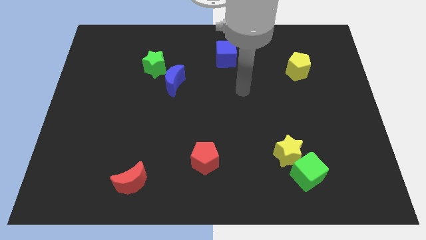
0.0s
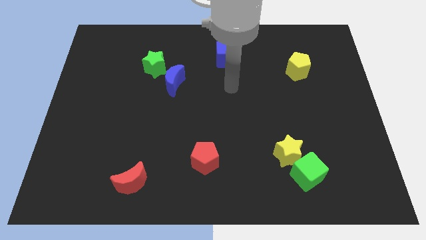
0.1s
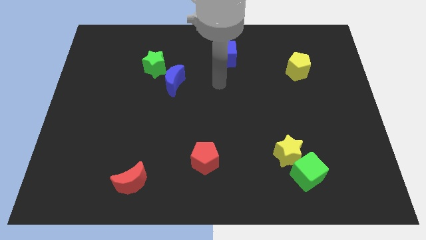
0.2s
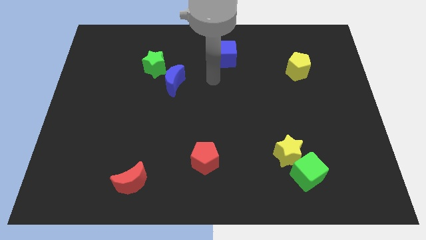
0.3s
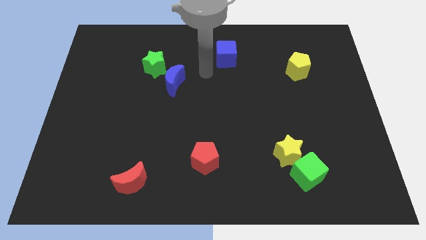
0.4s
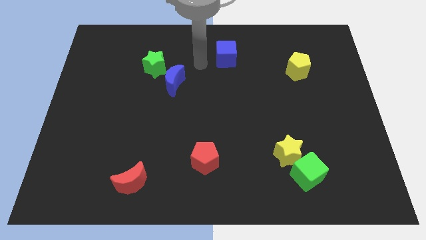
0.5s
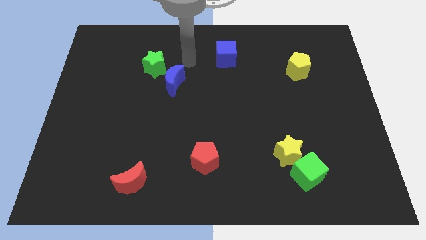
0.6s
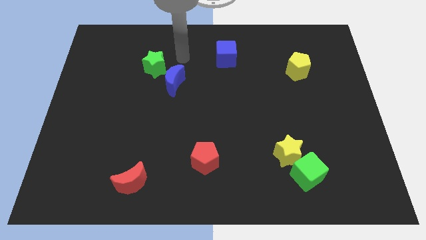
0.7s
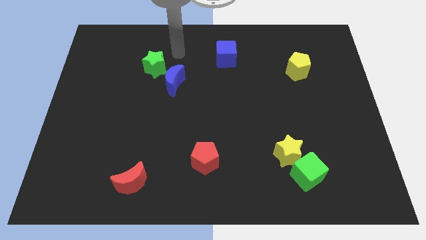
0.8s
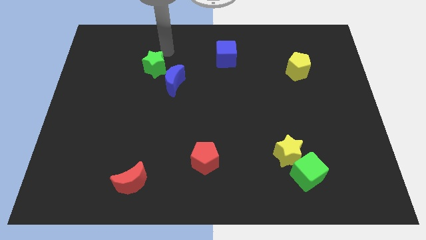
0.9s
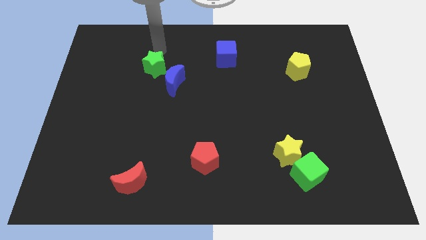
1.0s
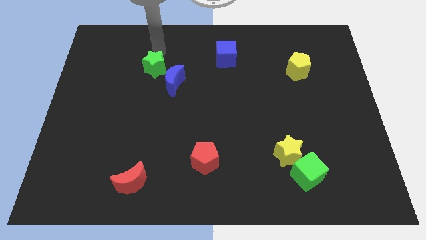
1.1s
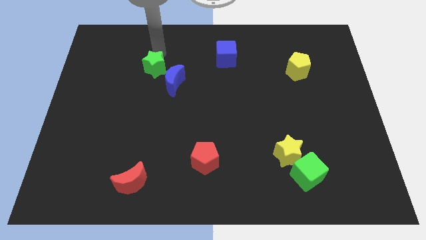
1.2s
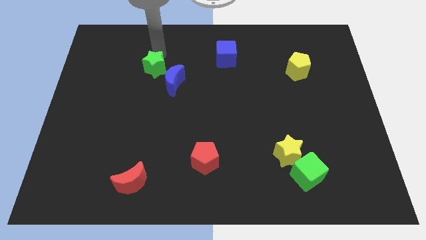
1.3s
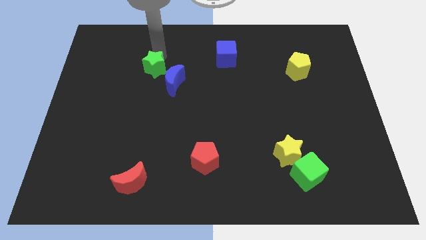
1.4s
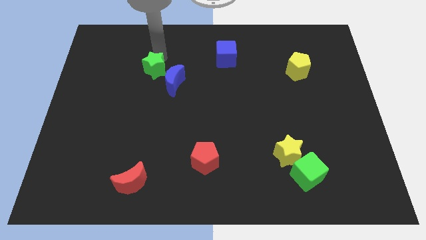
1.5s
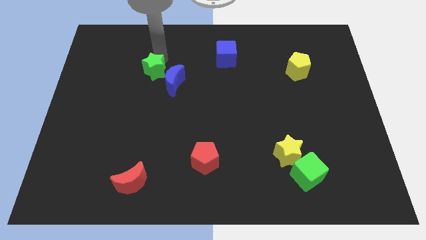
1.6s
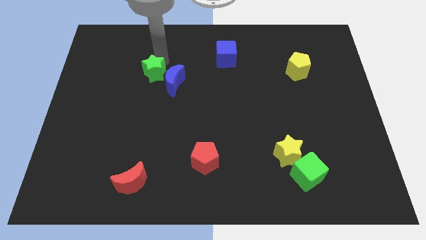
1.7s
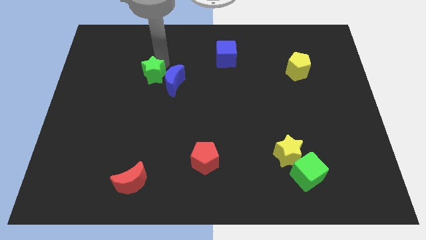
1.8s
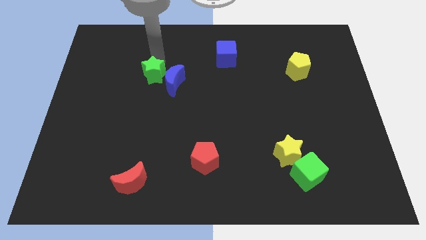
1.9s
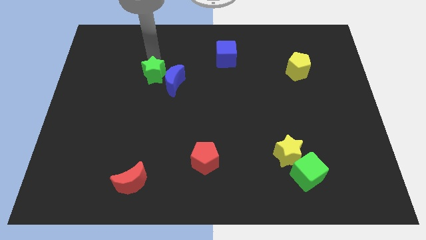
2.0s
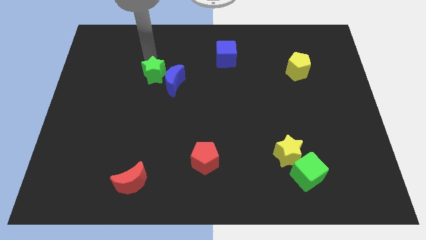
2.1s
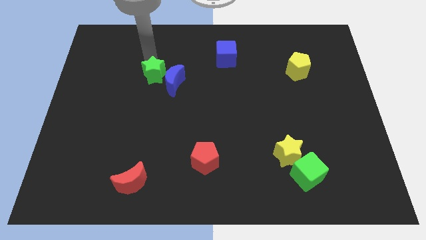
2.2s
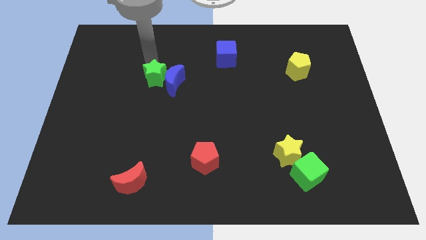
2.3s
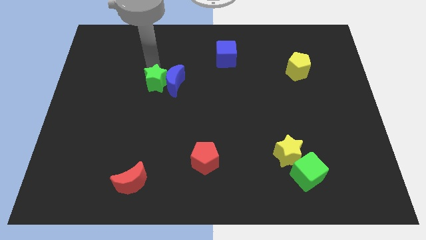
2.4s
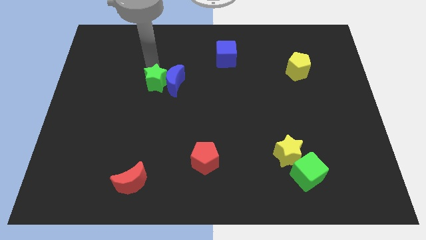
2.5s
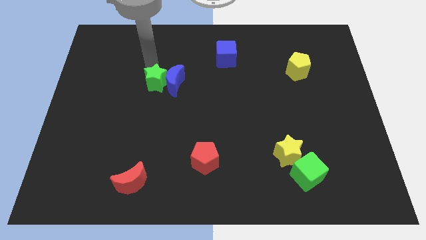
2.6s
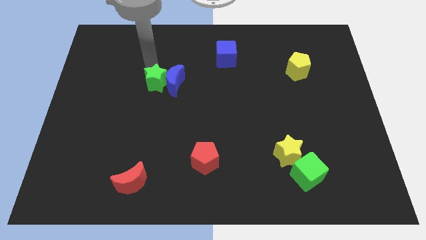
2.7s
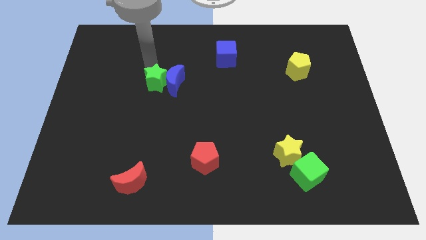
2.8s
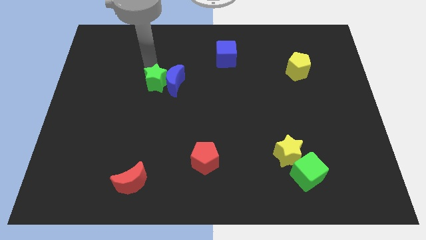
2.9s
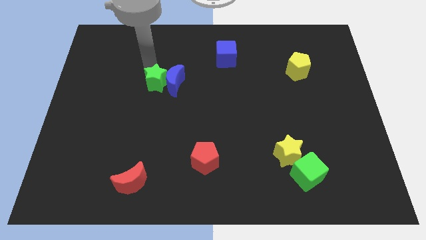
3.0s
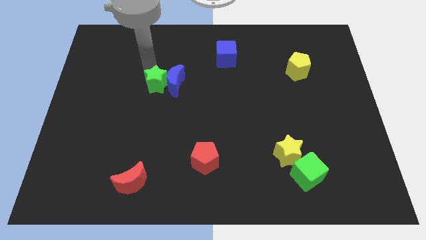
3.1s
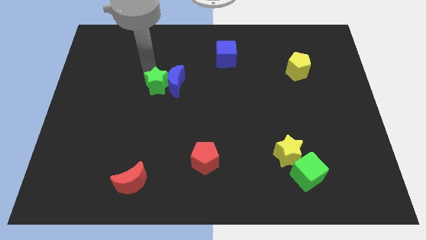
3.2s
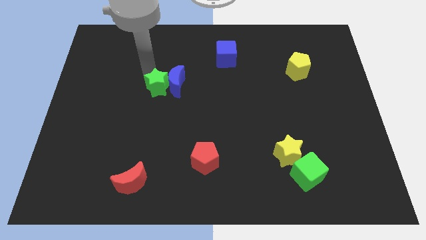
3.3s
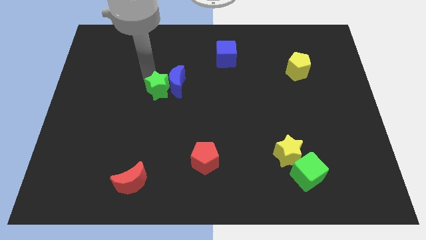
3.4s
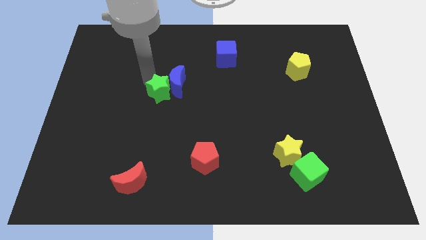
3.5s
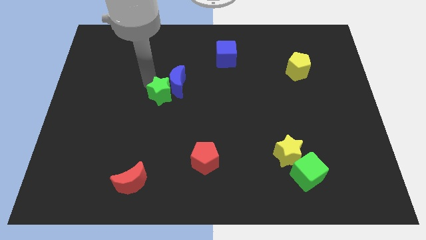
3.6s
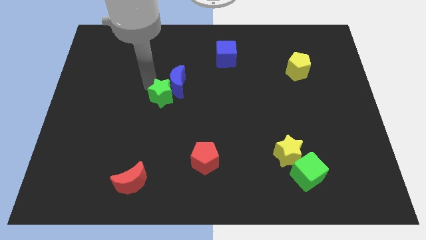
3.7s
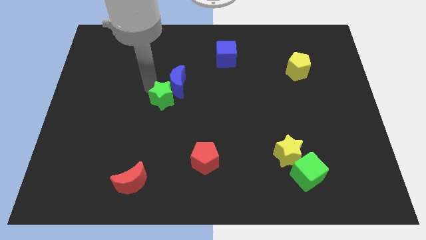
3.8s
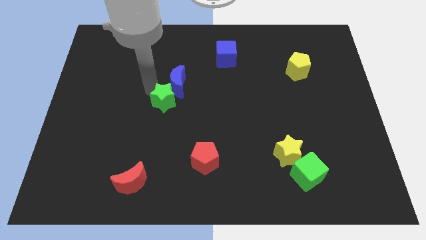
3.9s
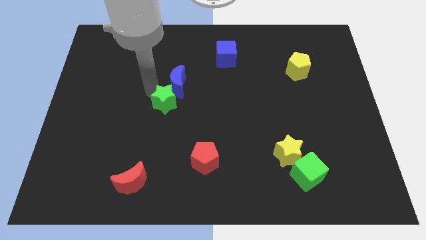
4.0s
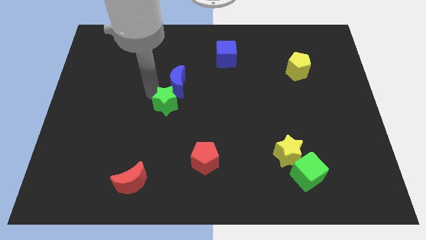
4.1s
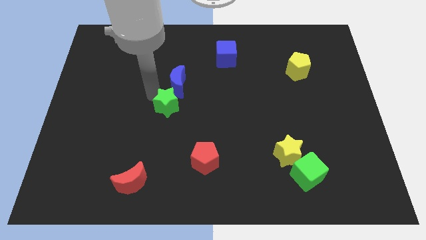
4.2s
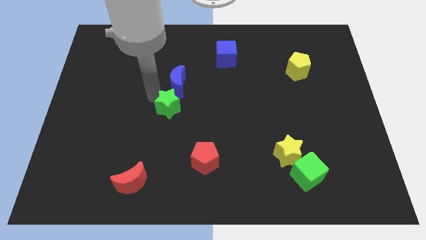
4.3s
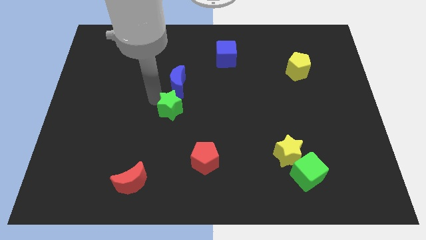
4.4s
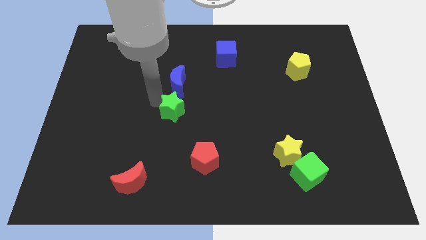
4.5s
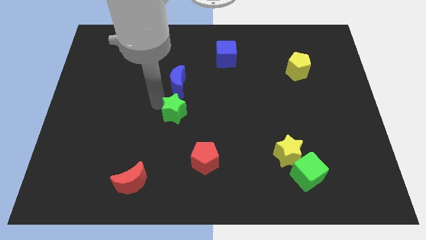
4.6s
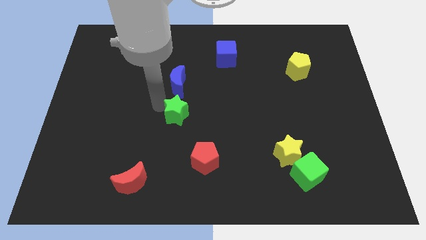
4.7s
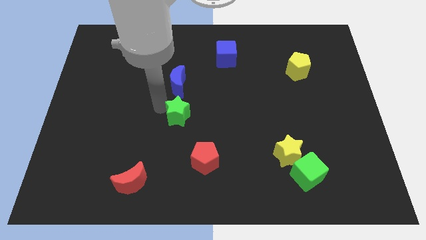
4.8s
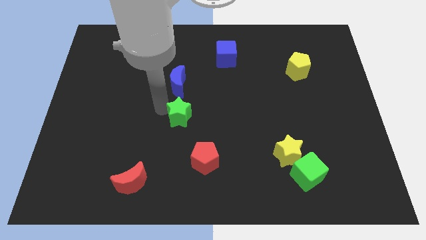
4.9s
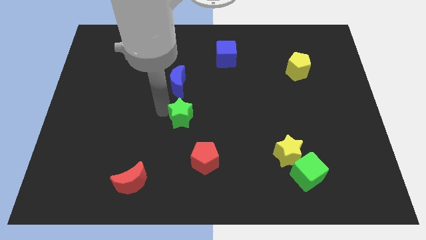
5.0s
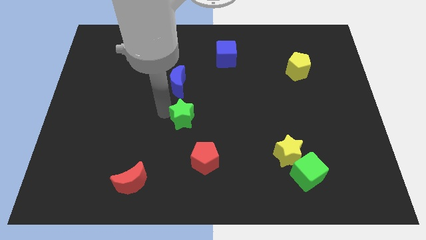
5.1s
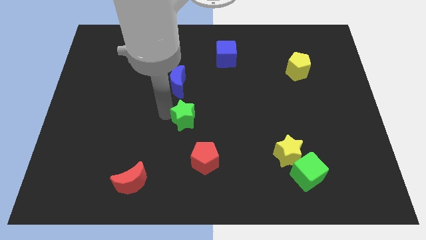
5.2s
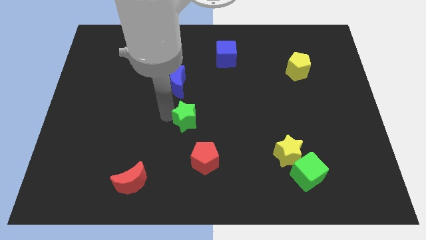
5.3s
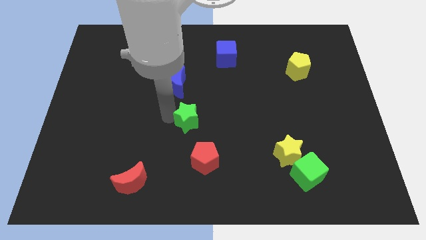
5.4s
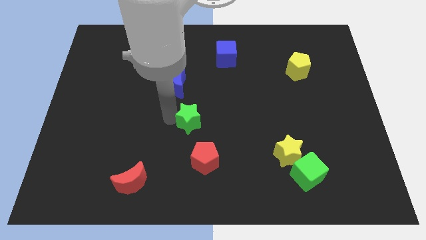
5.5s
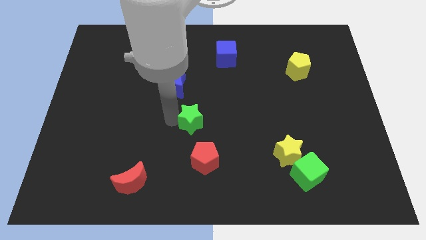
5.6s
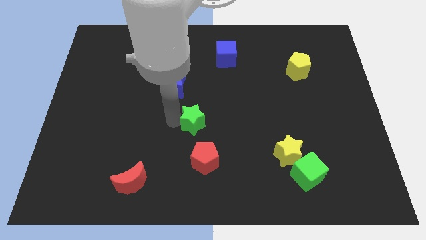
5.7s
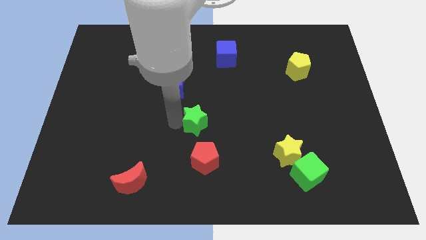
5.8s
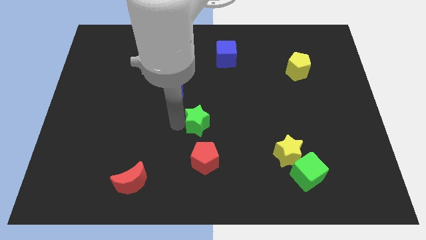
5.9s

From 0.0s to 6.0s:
move the green star down and then to the right

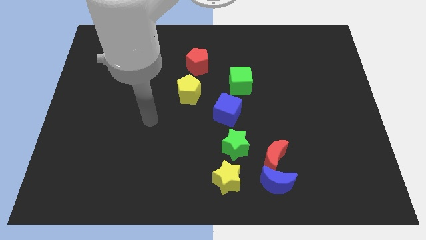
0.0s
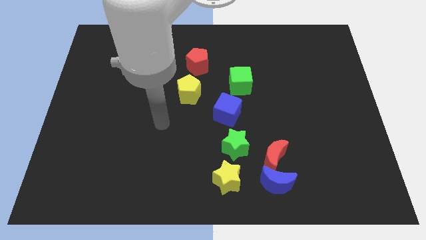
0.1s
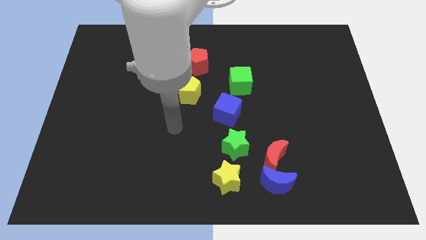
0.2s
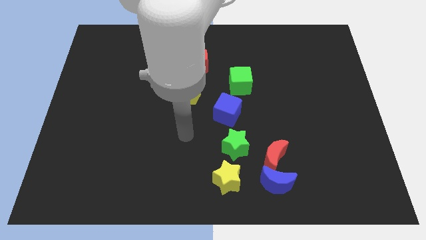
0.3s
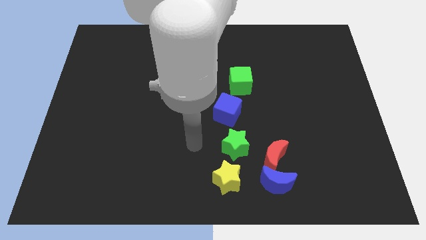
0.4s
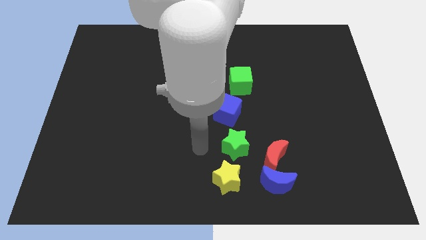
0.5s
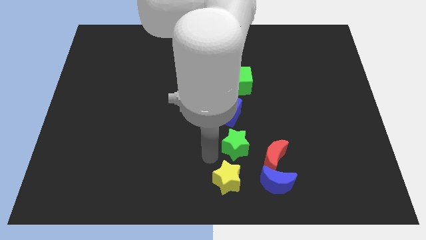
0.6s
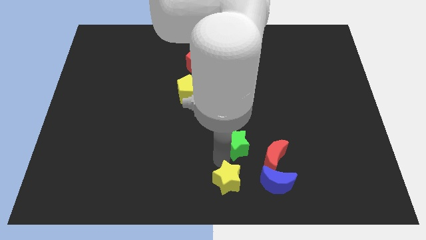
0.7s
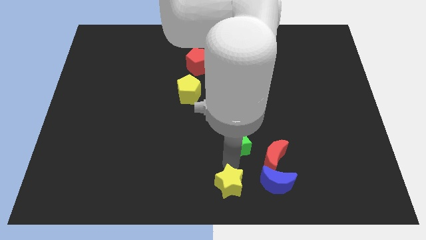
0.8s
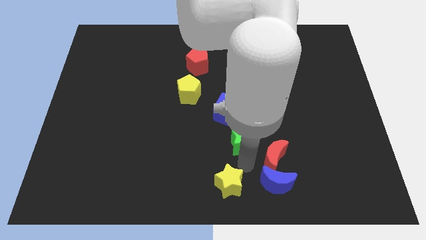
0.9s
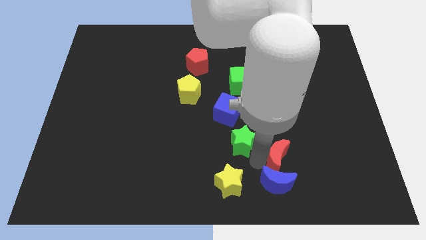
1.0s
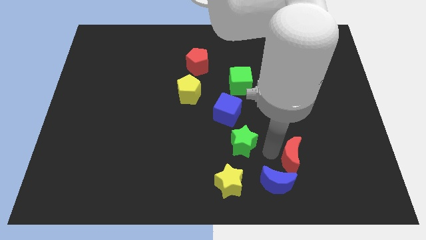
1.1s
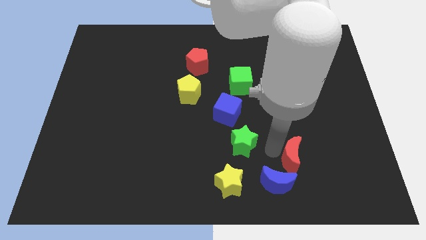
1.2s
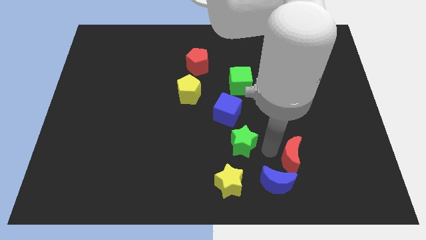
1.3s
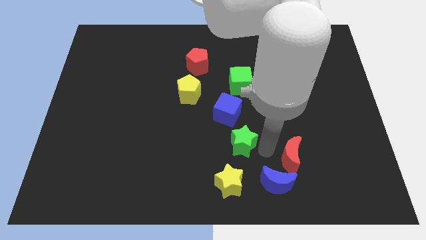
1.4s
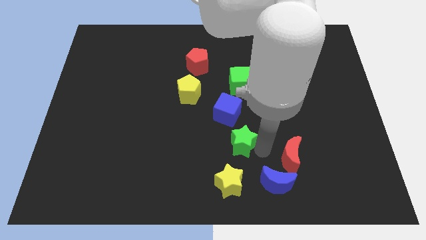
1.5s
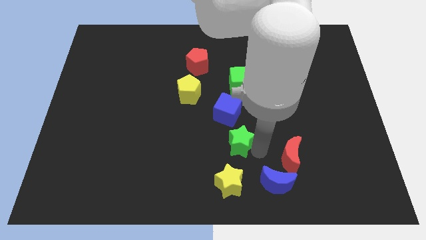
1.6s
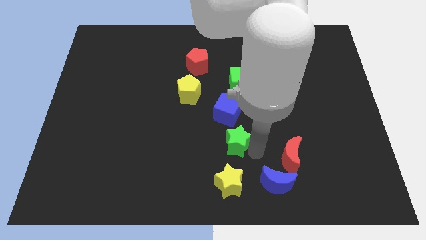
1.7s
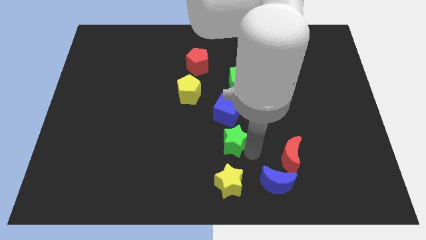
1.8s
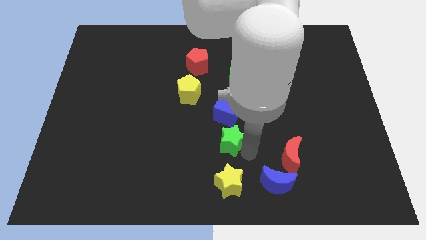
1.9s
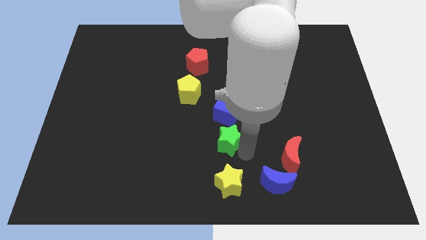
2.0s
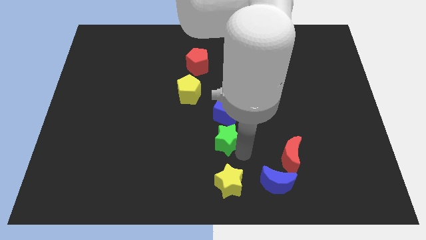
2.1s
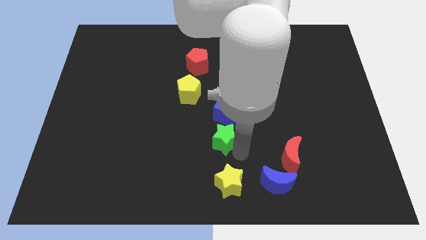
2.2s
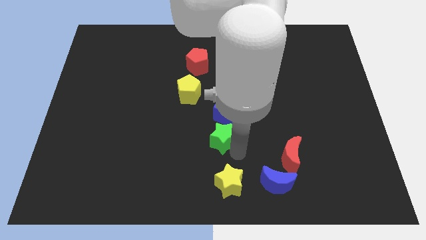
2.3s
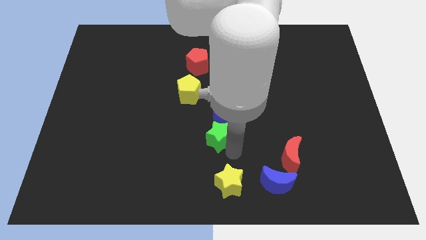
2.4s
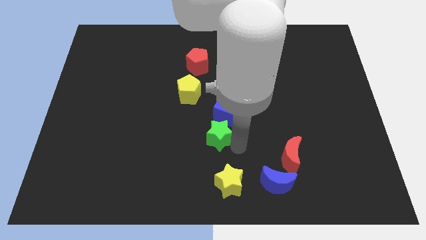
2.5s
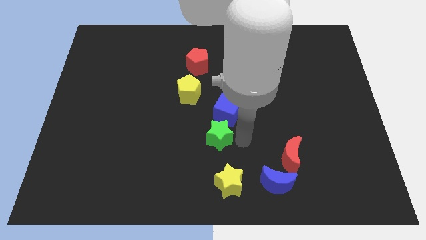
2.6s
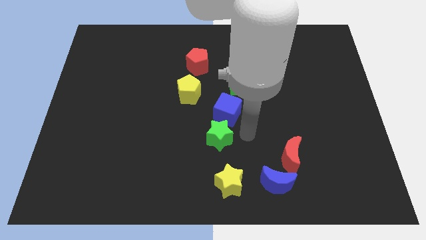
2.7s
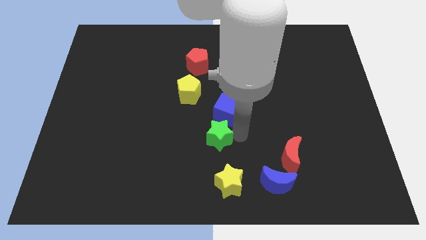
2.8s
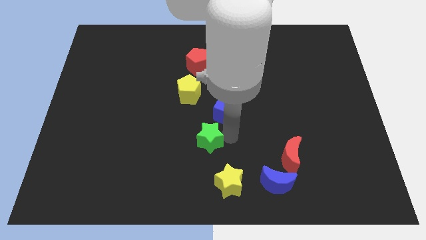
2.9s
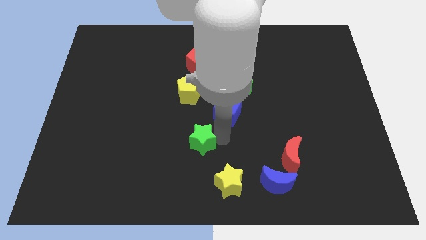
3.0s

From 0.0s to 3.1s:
slightly move the green star left
